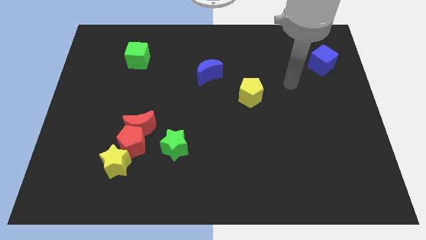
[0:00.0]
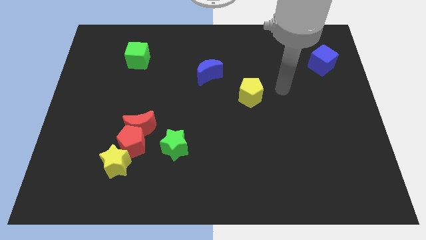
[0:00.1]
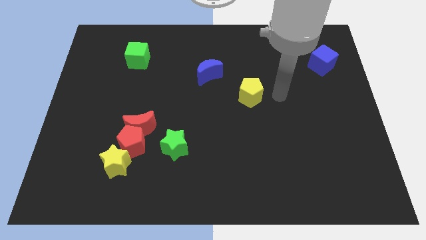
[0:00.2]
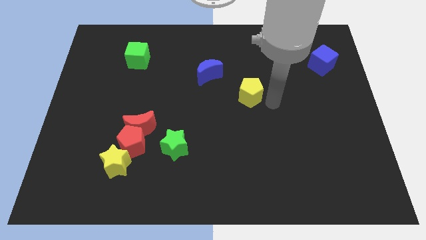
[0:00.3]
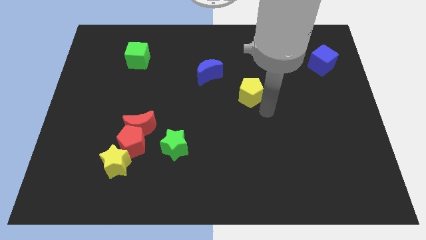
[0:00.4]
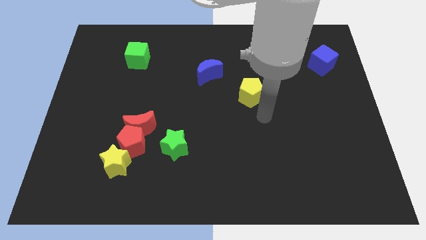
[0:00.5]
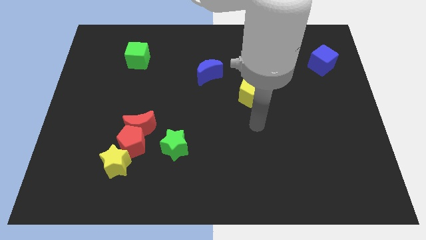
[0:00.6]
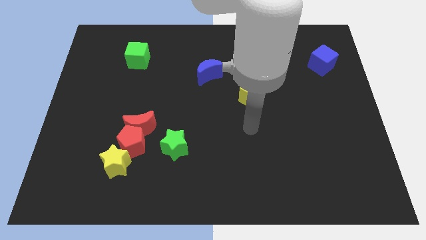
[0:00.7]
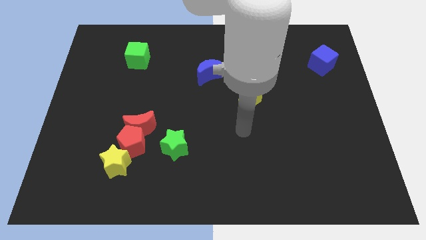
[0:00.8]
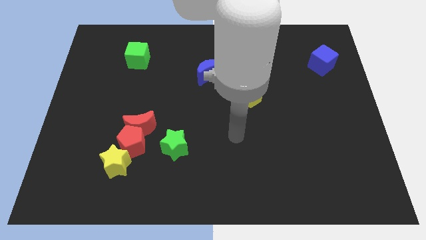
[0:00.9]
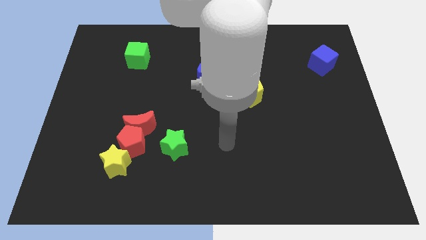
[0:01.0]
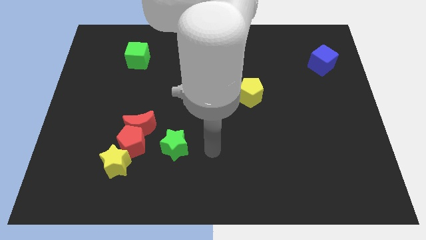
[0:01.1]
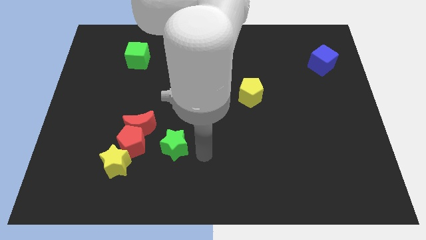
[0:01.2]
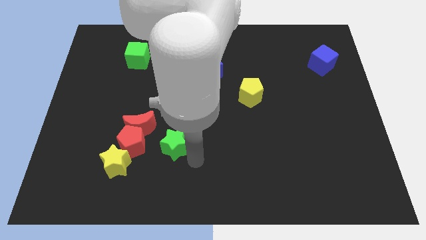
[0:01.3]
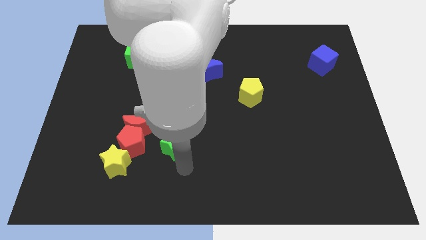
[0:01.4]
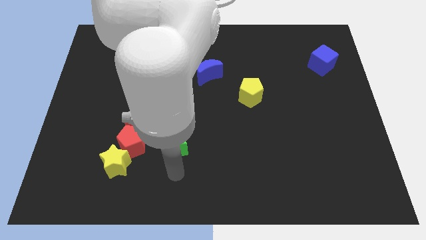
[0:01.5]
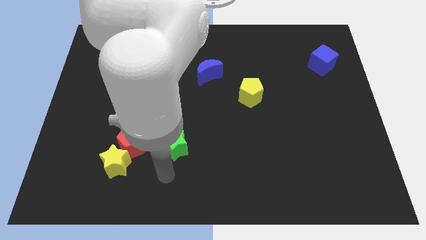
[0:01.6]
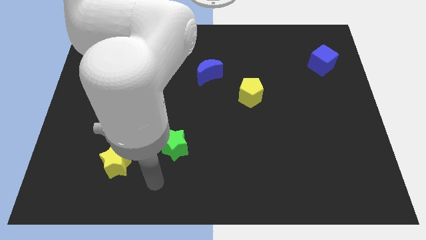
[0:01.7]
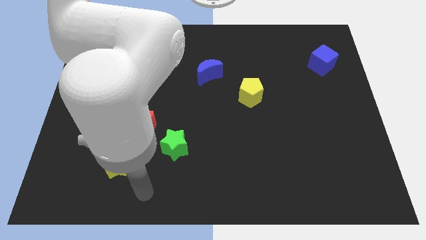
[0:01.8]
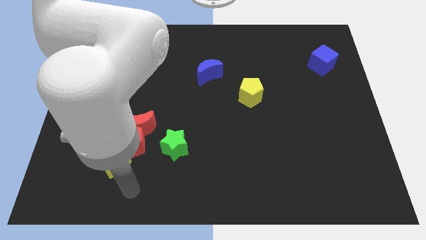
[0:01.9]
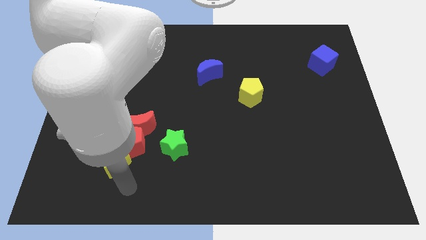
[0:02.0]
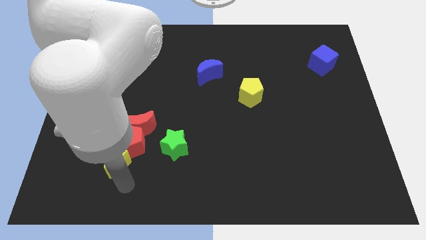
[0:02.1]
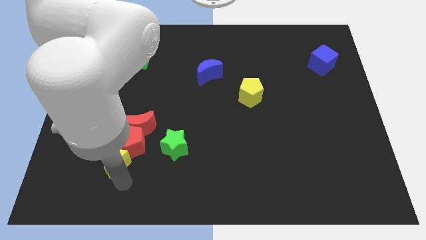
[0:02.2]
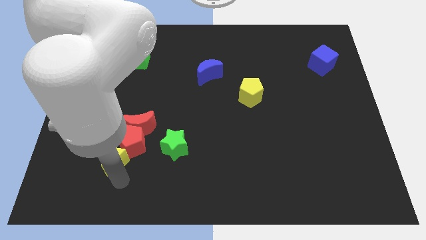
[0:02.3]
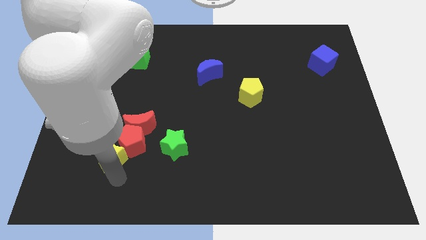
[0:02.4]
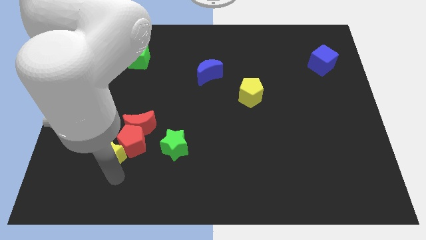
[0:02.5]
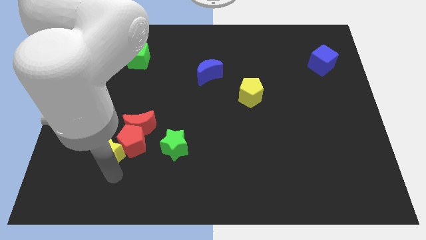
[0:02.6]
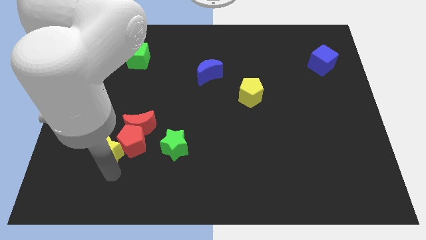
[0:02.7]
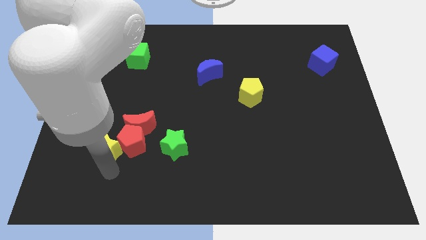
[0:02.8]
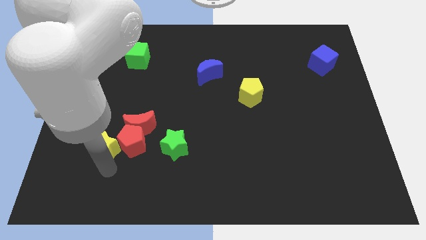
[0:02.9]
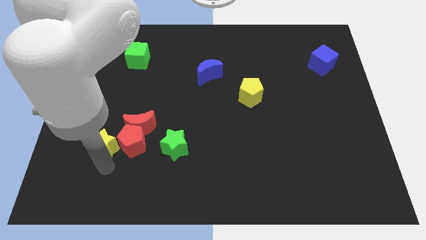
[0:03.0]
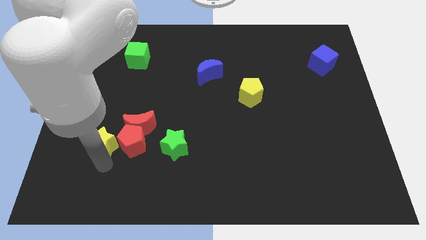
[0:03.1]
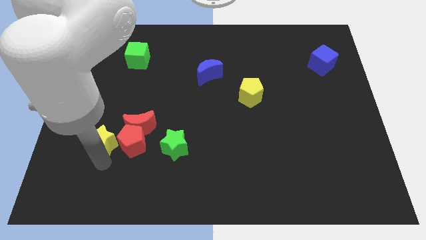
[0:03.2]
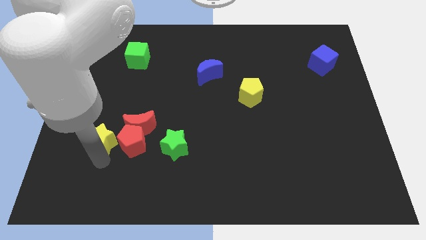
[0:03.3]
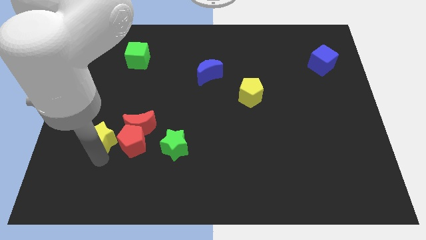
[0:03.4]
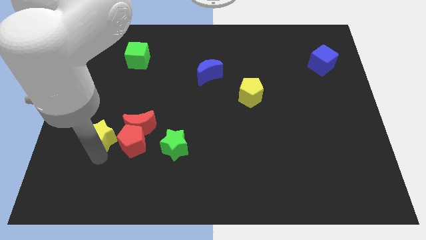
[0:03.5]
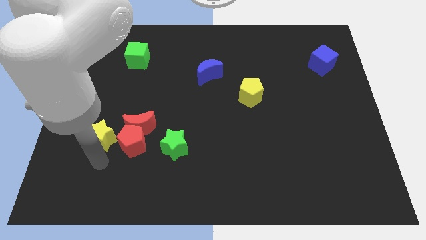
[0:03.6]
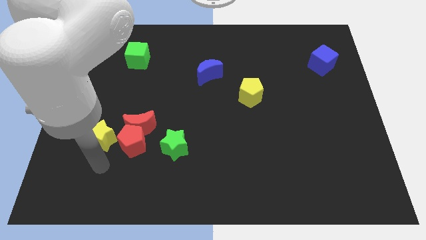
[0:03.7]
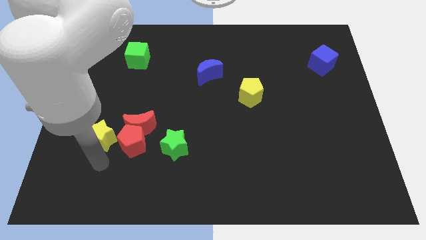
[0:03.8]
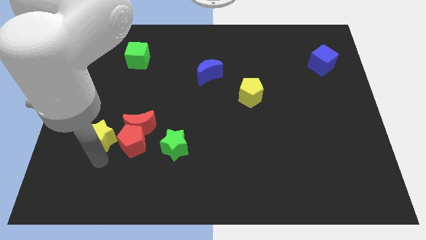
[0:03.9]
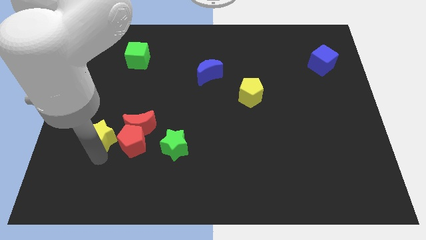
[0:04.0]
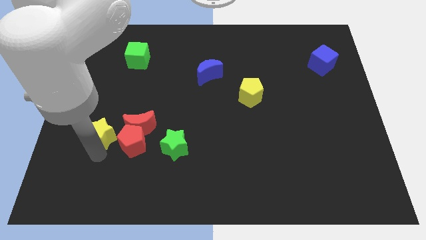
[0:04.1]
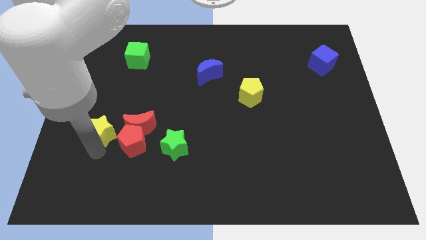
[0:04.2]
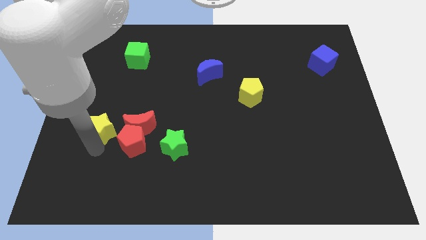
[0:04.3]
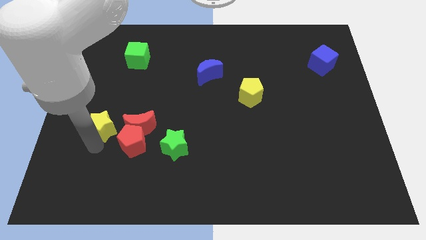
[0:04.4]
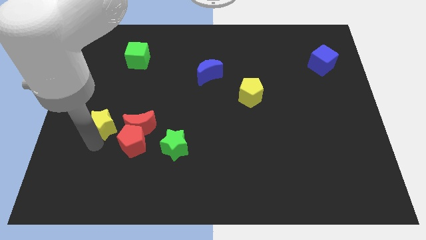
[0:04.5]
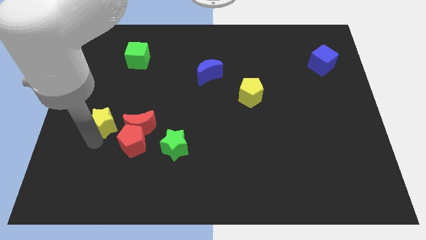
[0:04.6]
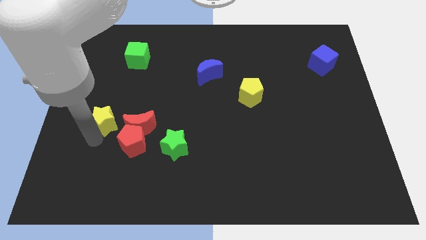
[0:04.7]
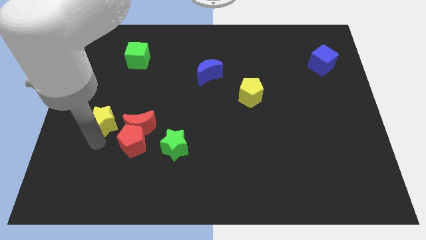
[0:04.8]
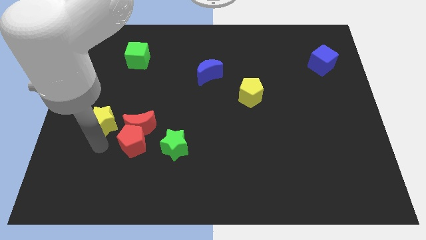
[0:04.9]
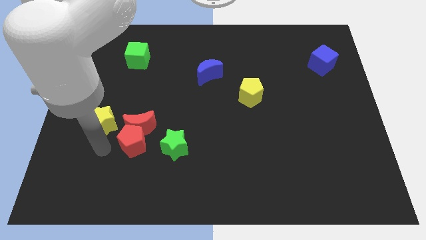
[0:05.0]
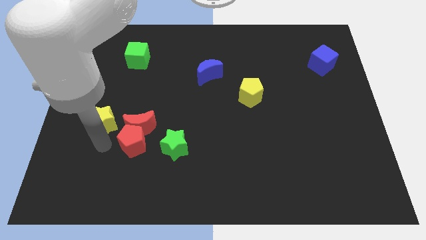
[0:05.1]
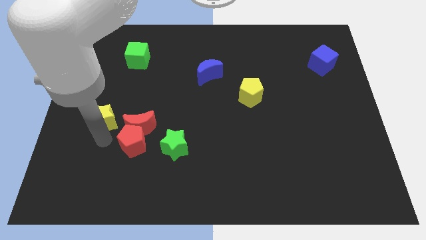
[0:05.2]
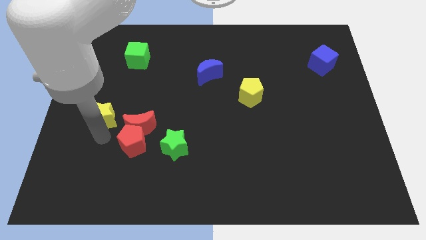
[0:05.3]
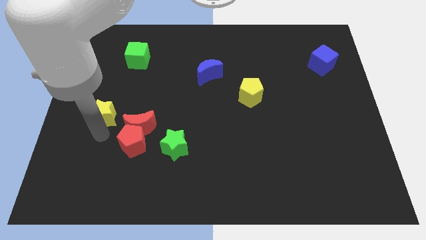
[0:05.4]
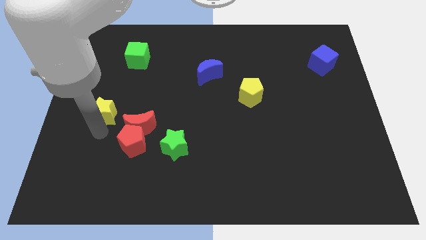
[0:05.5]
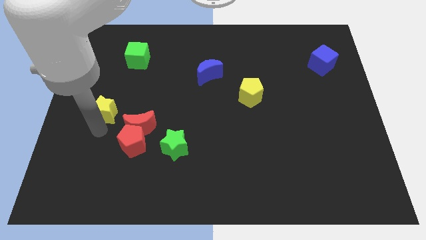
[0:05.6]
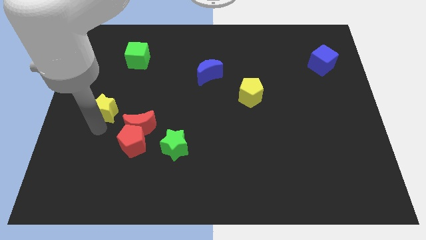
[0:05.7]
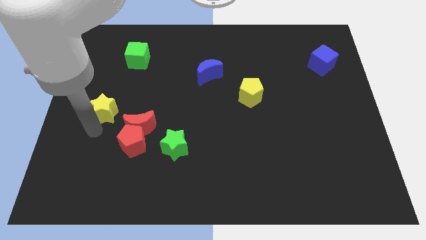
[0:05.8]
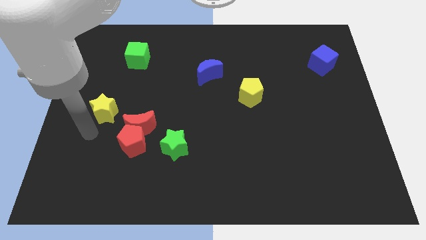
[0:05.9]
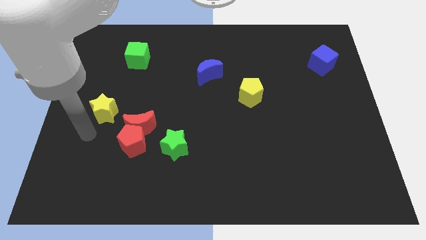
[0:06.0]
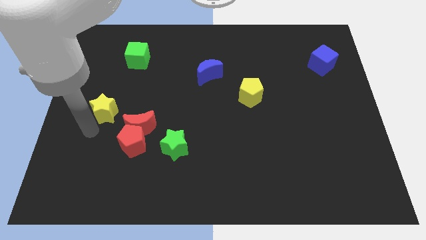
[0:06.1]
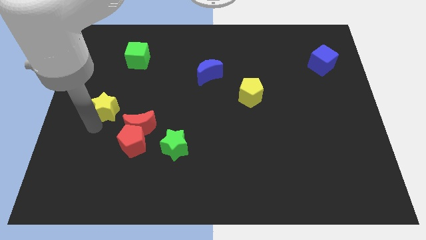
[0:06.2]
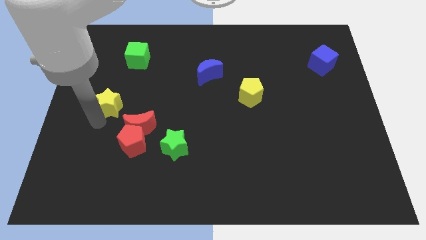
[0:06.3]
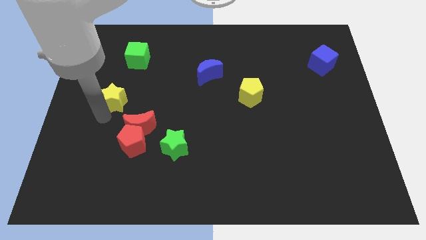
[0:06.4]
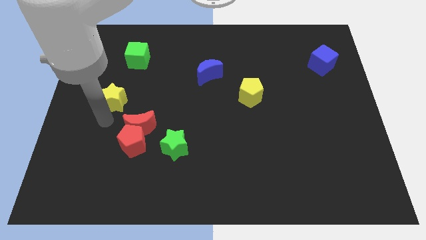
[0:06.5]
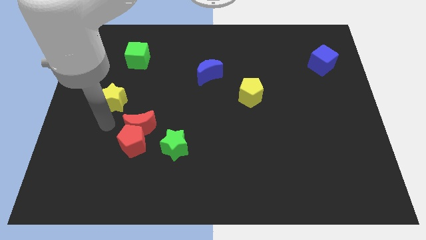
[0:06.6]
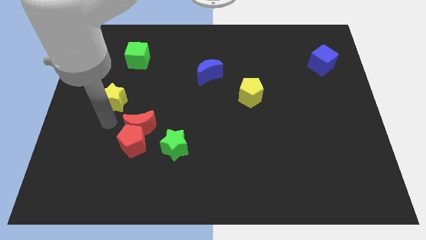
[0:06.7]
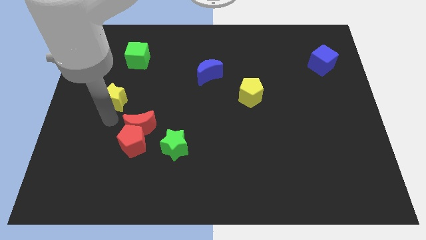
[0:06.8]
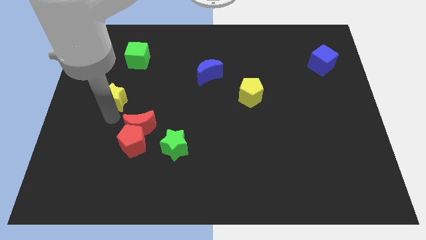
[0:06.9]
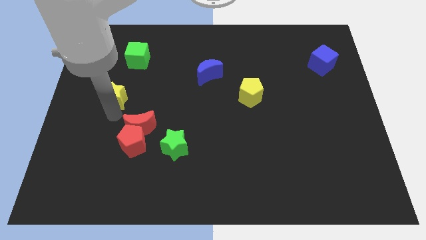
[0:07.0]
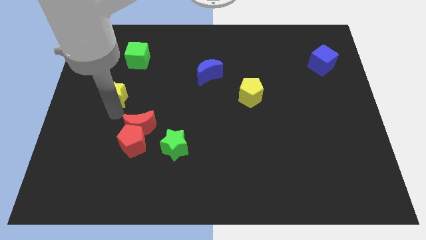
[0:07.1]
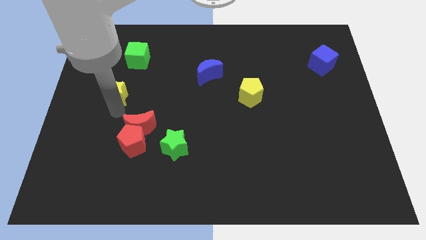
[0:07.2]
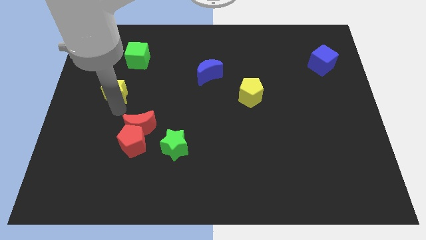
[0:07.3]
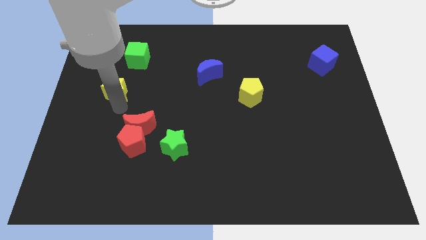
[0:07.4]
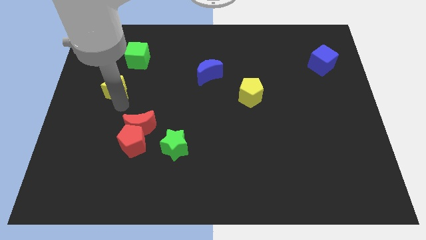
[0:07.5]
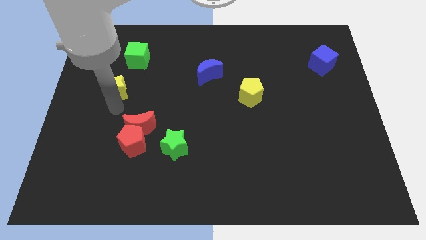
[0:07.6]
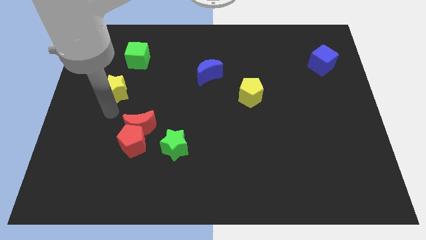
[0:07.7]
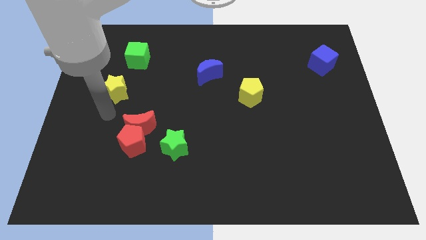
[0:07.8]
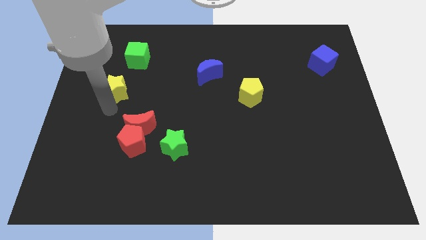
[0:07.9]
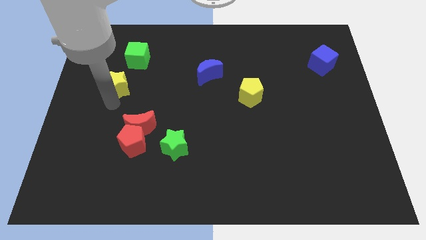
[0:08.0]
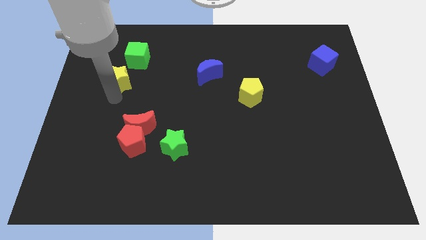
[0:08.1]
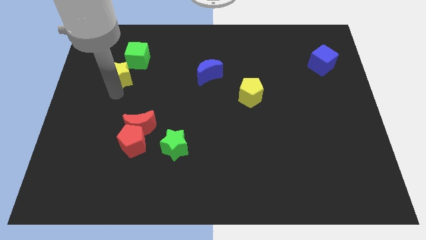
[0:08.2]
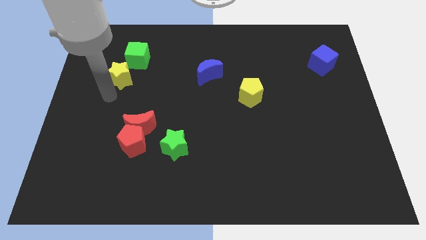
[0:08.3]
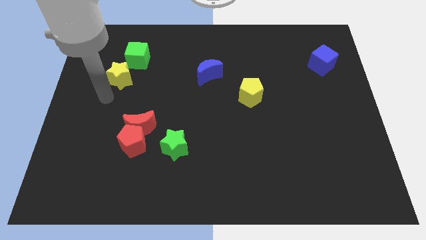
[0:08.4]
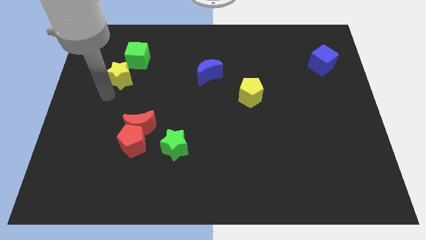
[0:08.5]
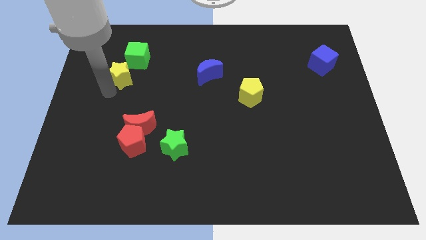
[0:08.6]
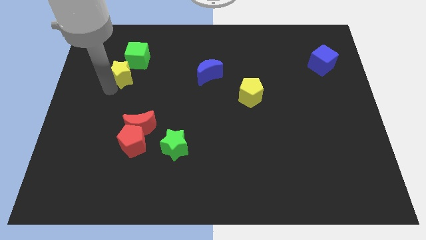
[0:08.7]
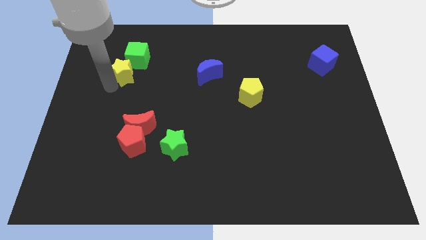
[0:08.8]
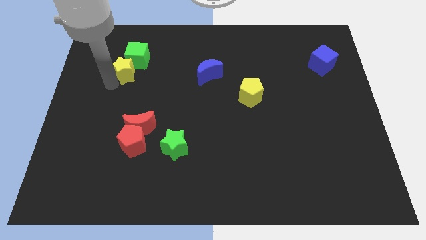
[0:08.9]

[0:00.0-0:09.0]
push the yellow star next to the green cube
